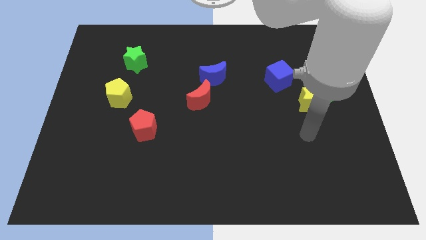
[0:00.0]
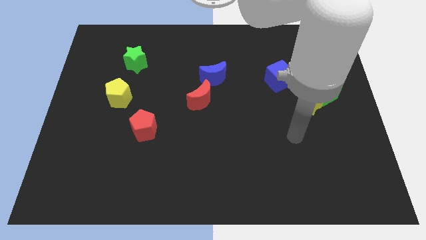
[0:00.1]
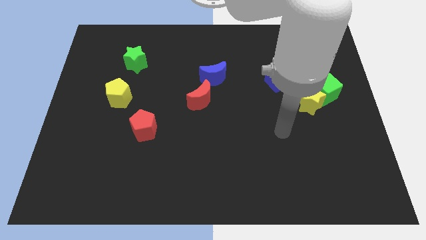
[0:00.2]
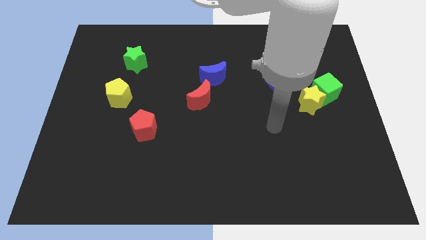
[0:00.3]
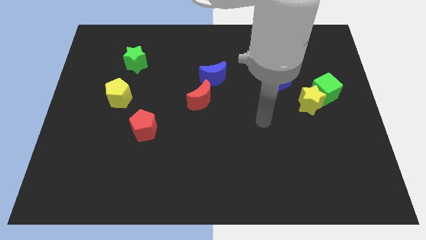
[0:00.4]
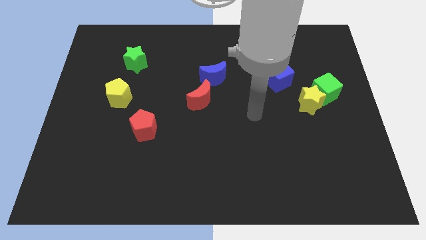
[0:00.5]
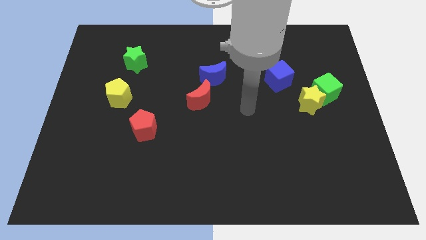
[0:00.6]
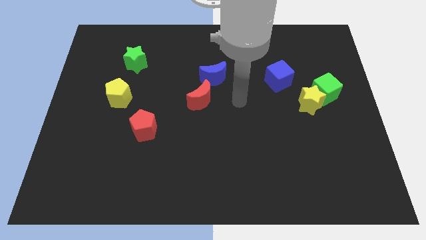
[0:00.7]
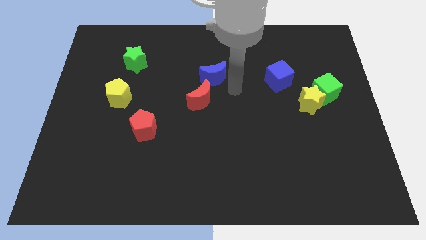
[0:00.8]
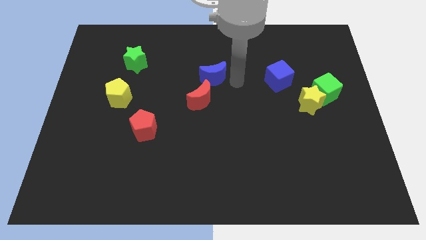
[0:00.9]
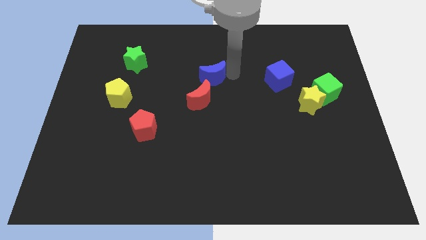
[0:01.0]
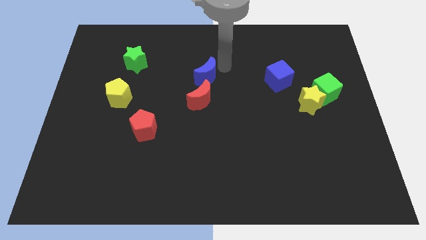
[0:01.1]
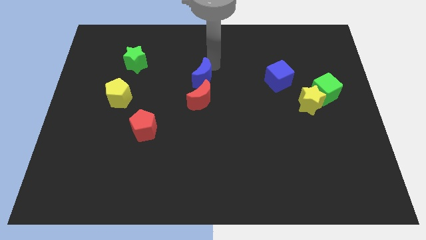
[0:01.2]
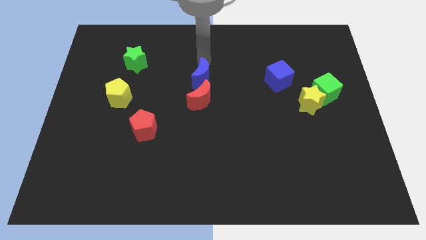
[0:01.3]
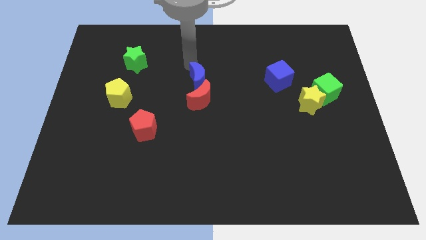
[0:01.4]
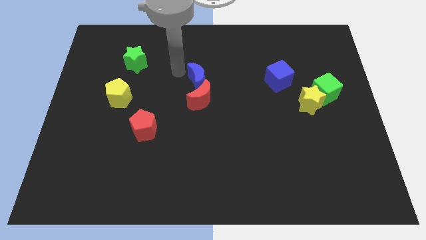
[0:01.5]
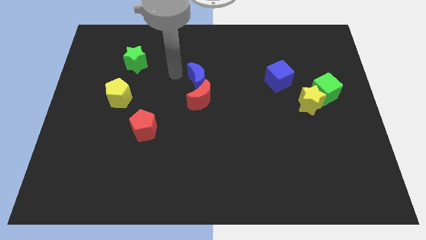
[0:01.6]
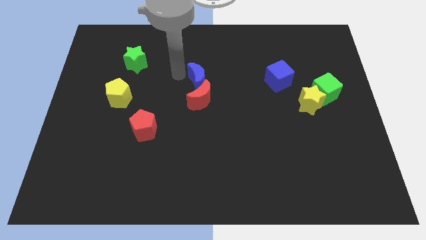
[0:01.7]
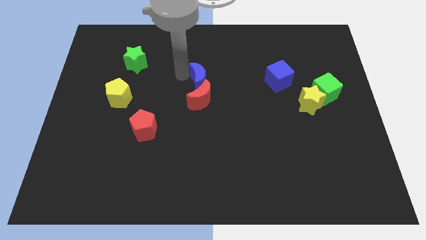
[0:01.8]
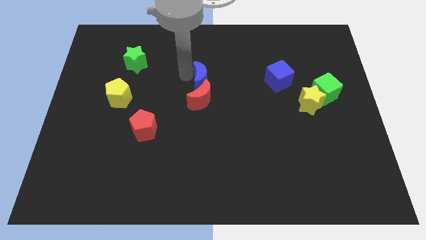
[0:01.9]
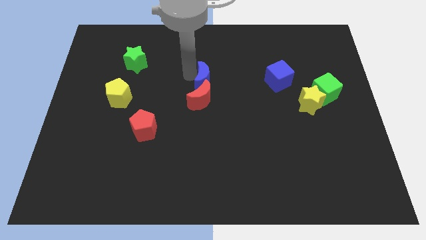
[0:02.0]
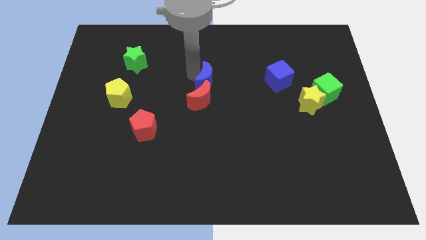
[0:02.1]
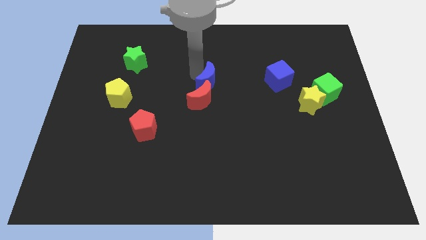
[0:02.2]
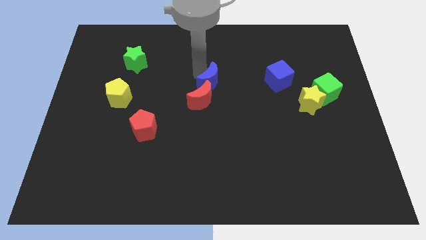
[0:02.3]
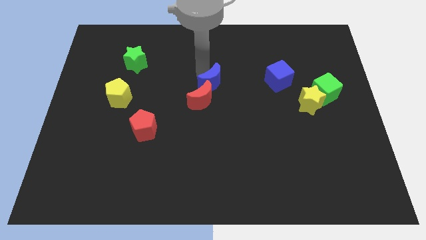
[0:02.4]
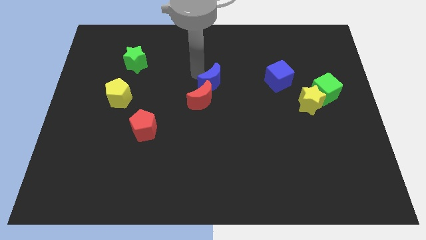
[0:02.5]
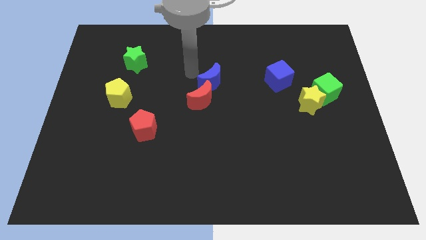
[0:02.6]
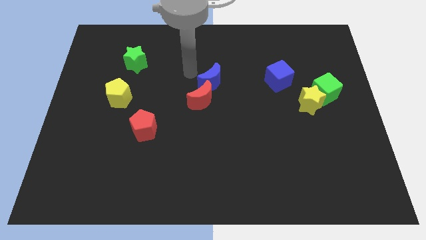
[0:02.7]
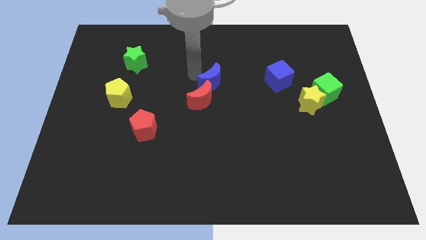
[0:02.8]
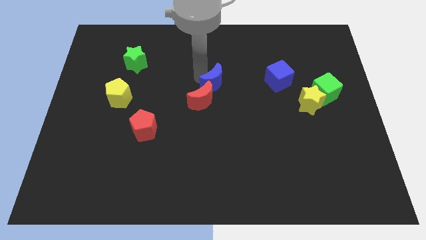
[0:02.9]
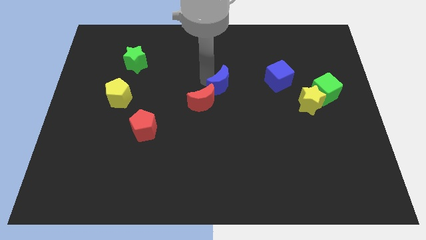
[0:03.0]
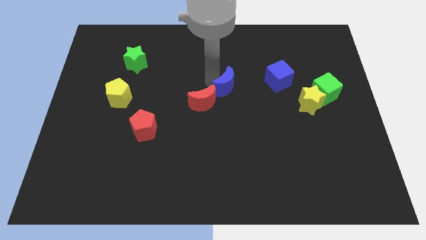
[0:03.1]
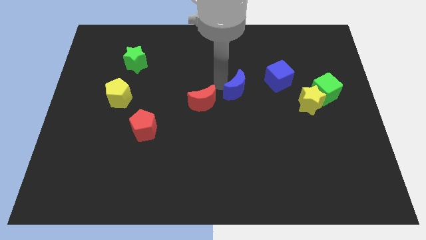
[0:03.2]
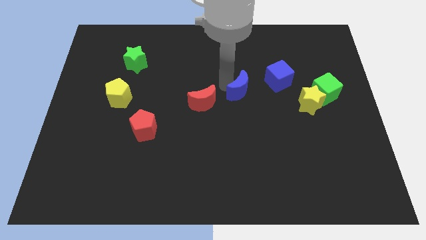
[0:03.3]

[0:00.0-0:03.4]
slide the blue moon a bit downwards and to the right

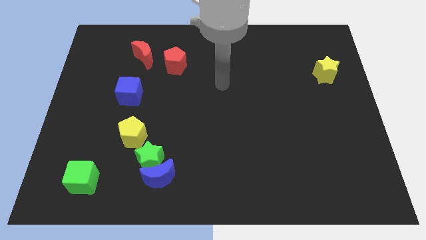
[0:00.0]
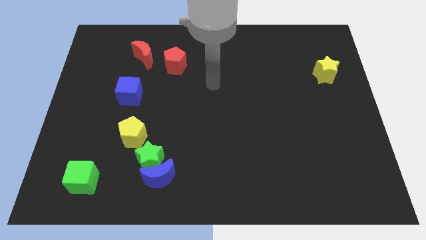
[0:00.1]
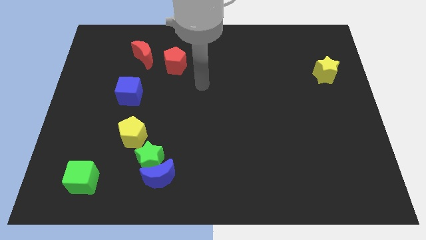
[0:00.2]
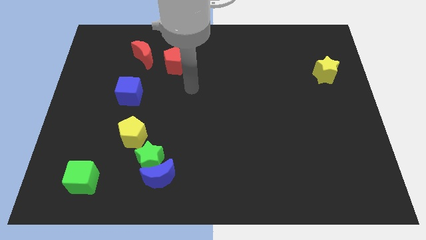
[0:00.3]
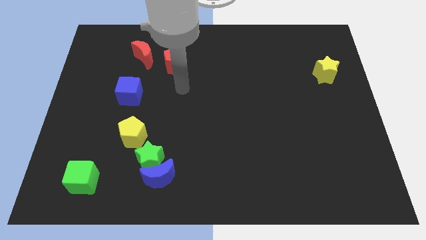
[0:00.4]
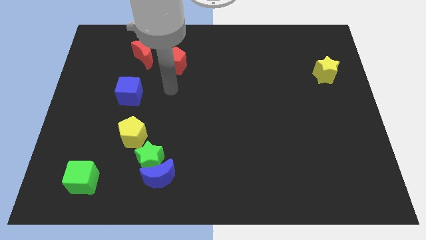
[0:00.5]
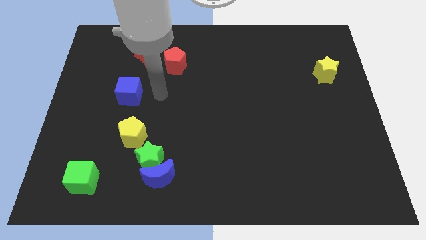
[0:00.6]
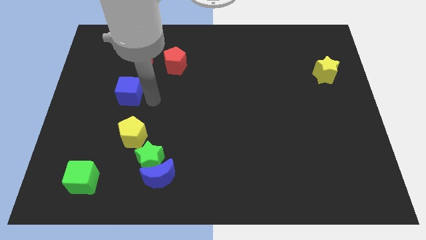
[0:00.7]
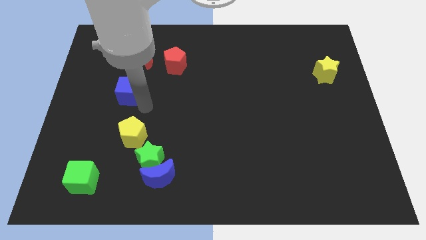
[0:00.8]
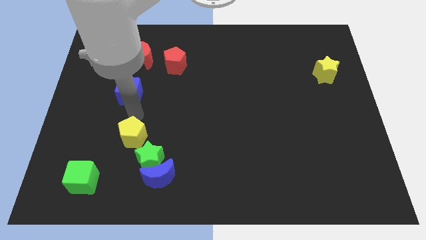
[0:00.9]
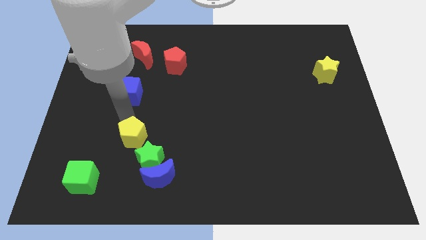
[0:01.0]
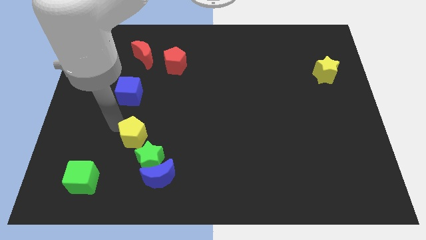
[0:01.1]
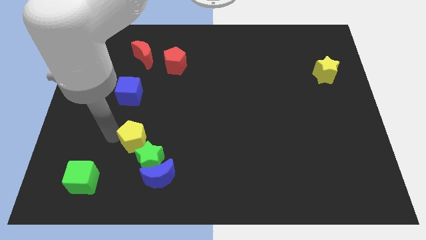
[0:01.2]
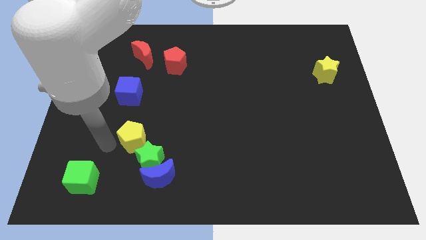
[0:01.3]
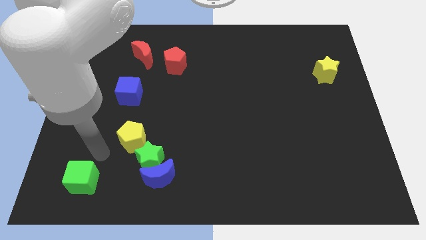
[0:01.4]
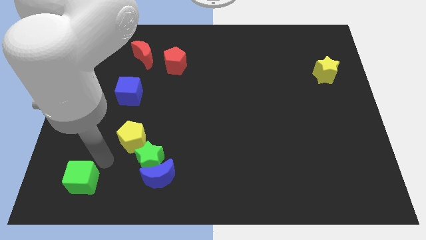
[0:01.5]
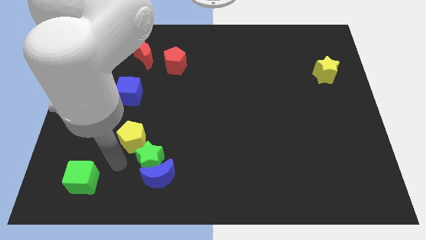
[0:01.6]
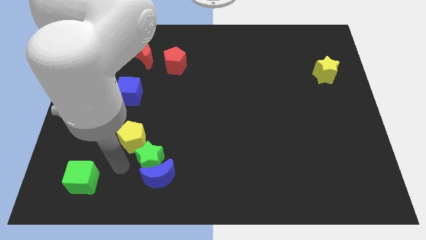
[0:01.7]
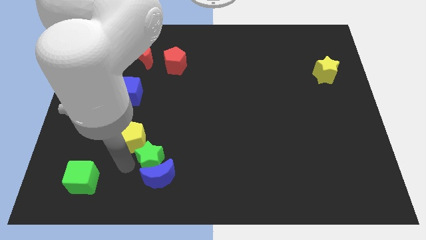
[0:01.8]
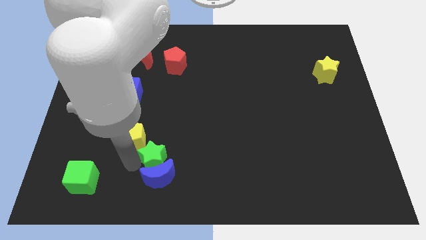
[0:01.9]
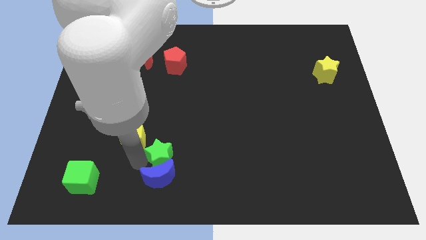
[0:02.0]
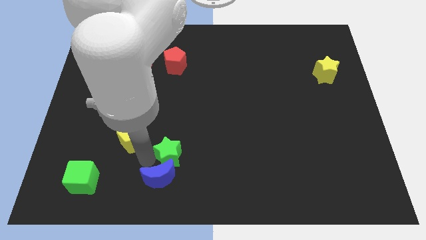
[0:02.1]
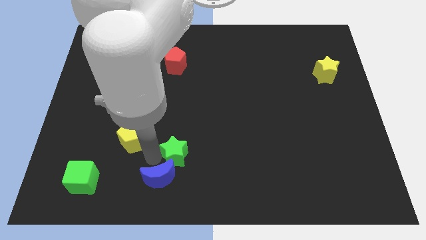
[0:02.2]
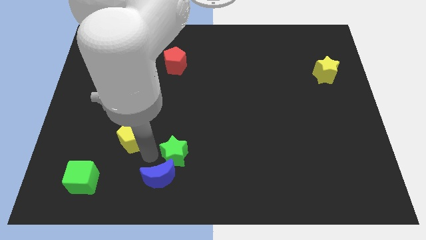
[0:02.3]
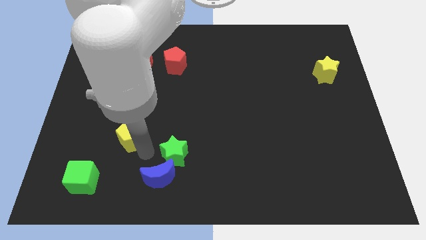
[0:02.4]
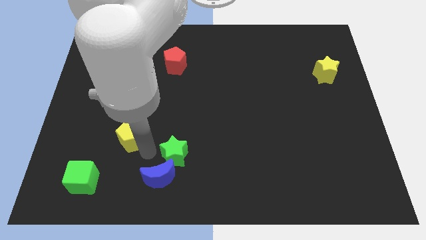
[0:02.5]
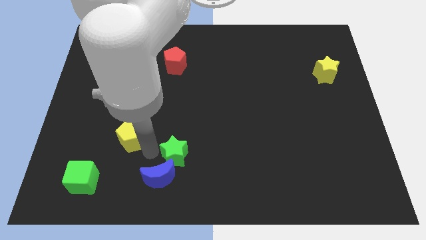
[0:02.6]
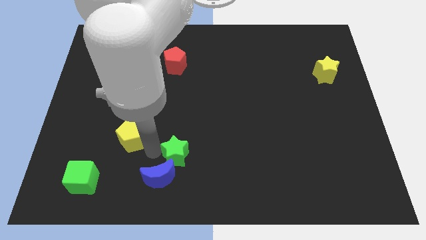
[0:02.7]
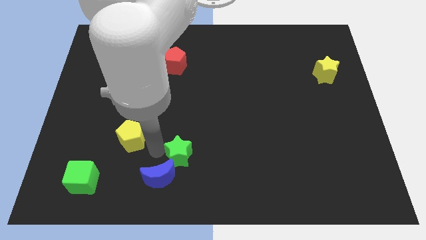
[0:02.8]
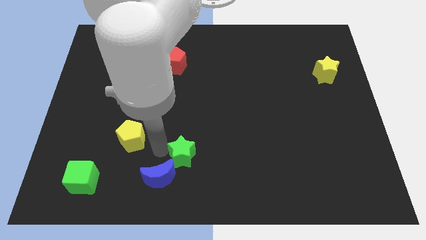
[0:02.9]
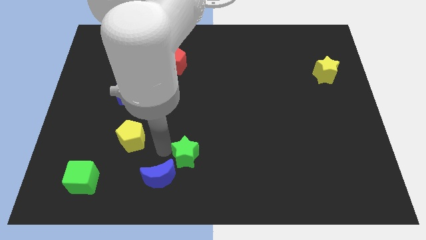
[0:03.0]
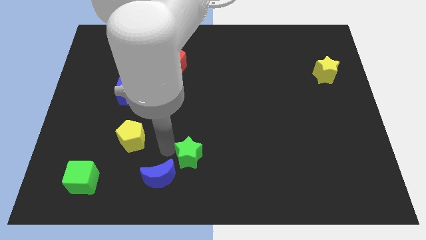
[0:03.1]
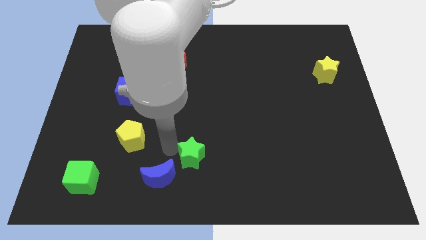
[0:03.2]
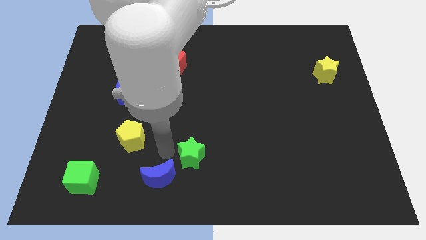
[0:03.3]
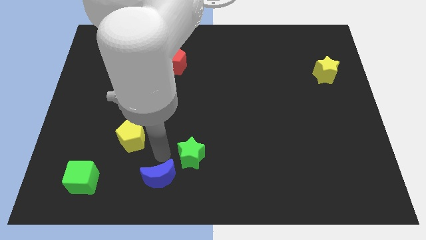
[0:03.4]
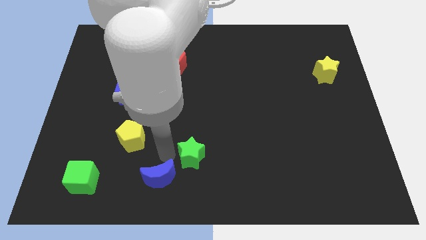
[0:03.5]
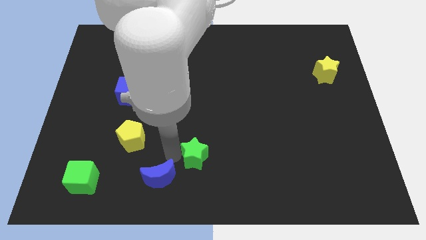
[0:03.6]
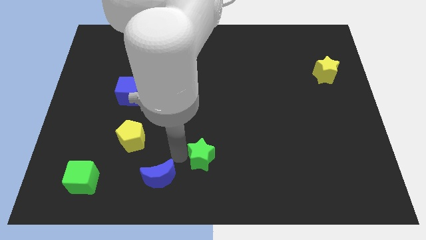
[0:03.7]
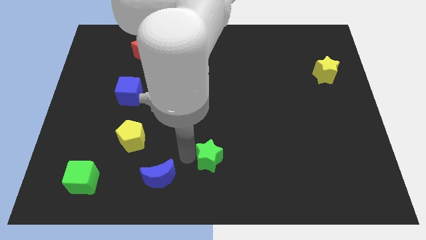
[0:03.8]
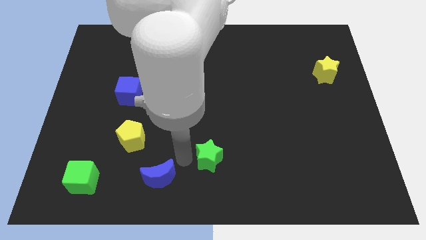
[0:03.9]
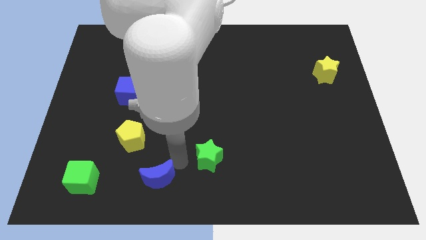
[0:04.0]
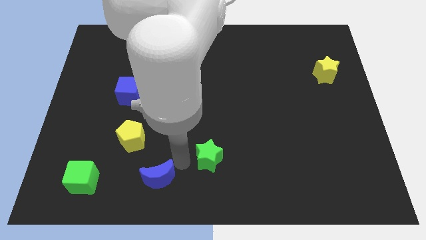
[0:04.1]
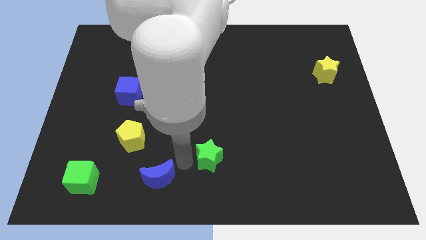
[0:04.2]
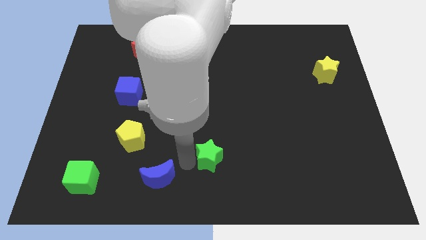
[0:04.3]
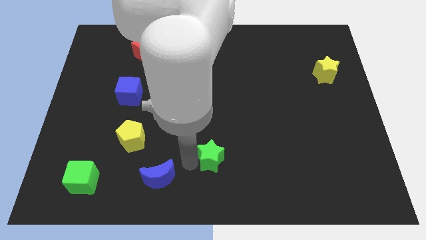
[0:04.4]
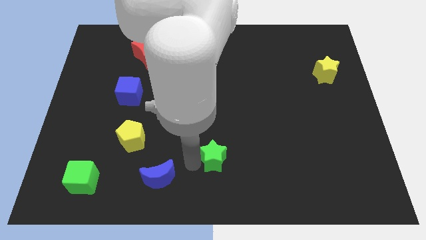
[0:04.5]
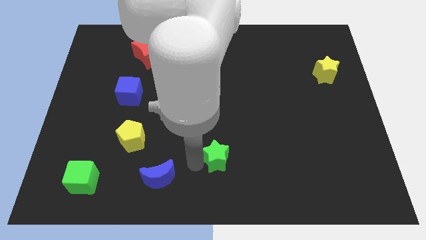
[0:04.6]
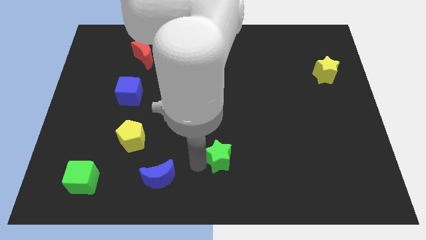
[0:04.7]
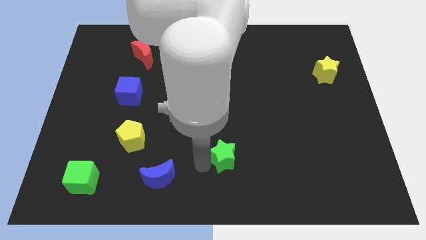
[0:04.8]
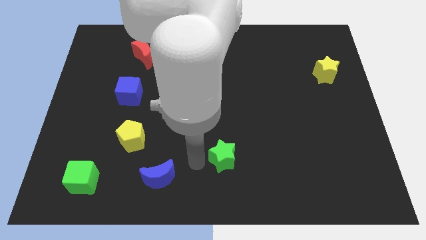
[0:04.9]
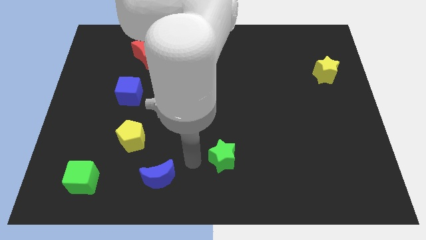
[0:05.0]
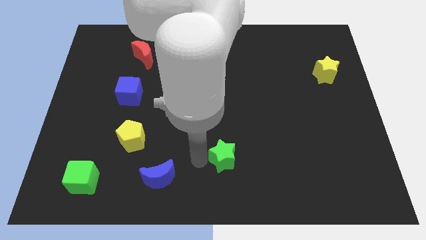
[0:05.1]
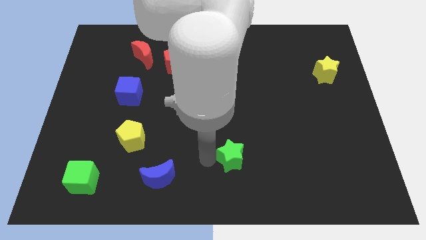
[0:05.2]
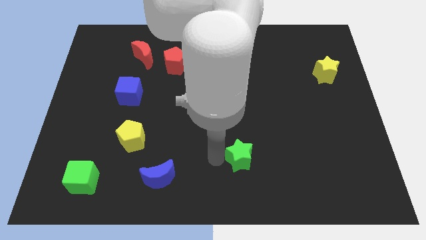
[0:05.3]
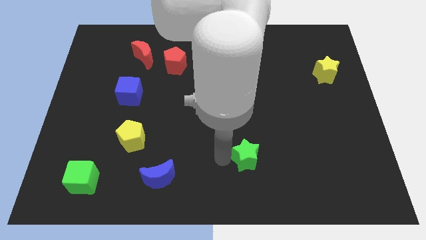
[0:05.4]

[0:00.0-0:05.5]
slide the green star to the right
